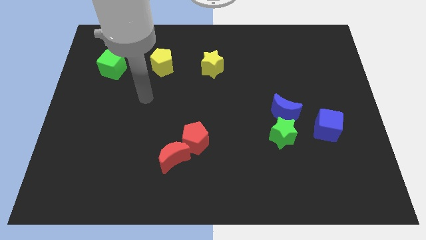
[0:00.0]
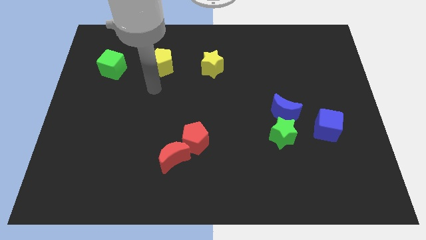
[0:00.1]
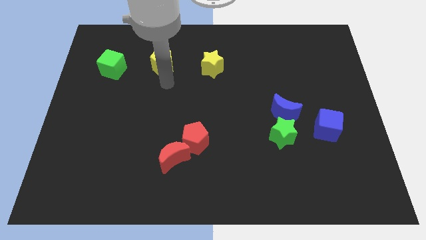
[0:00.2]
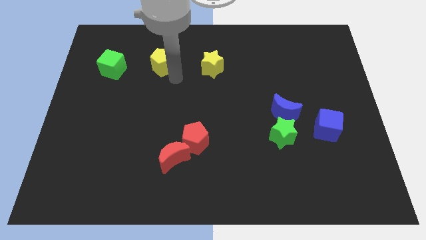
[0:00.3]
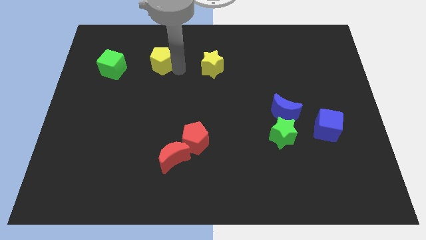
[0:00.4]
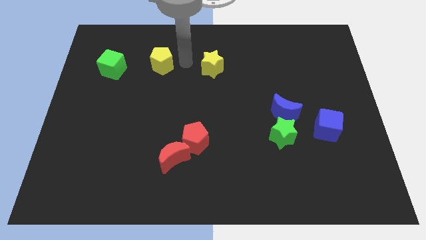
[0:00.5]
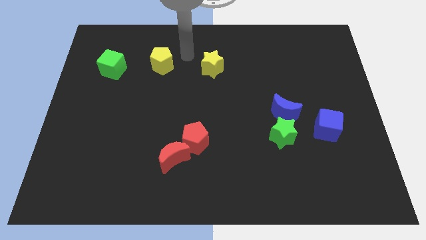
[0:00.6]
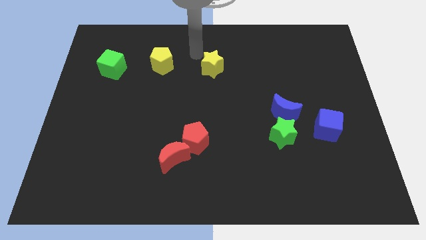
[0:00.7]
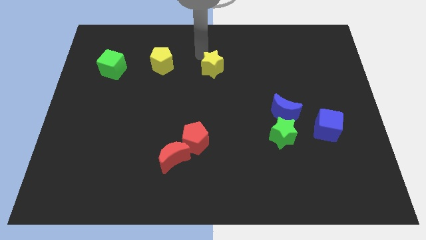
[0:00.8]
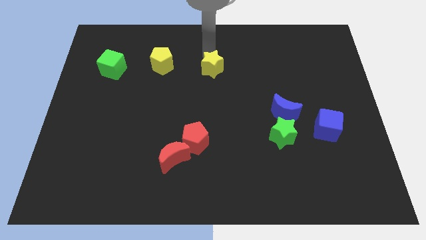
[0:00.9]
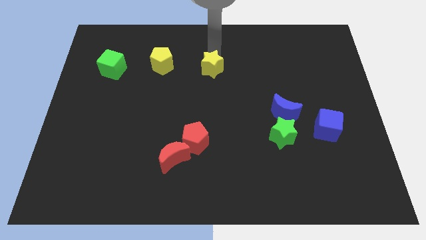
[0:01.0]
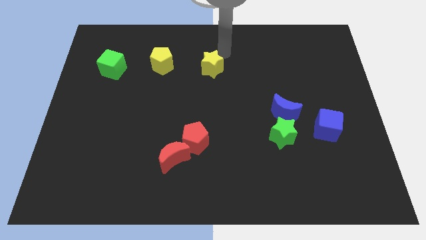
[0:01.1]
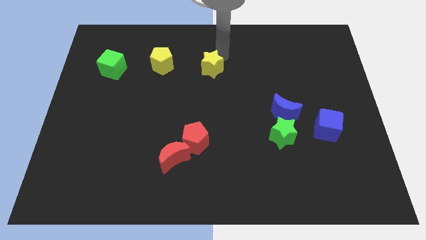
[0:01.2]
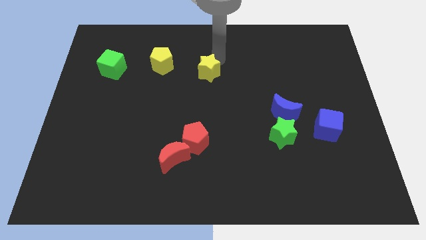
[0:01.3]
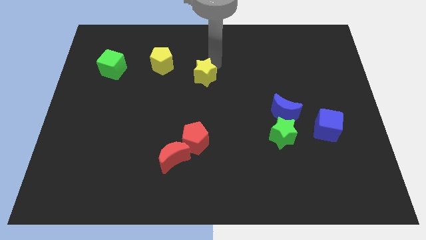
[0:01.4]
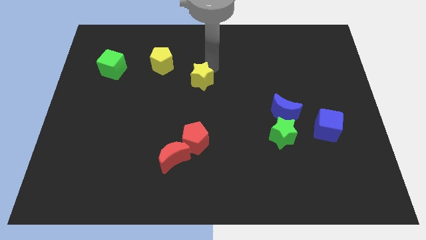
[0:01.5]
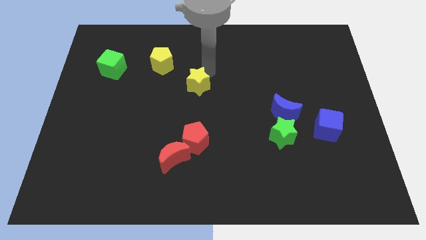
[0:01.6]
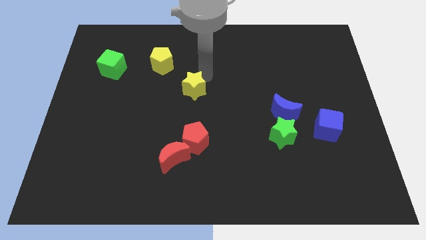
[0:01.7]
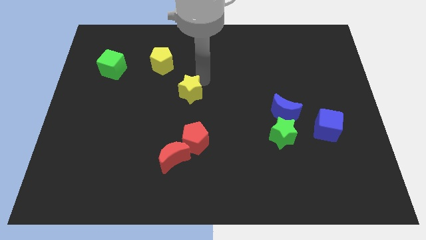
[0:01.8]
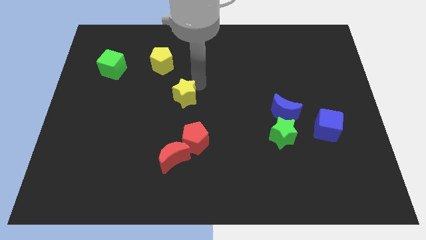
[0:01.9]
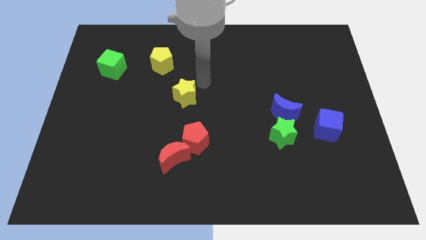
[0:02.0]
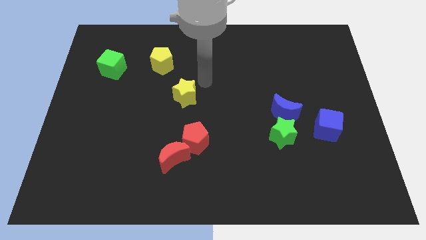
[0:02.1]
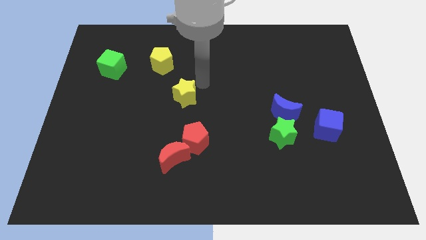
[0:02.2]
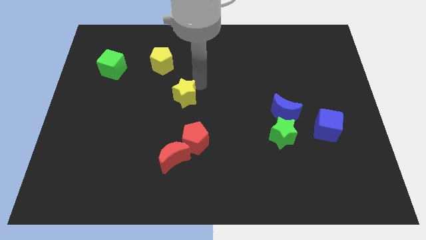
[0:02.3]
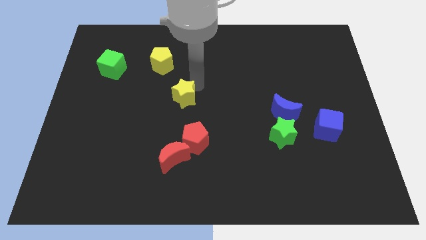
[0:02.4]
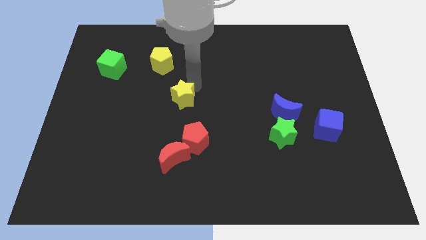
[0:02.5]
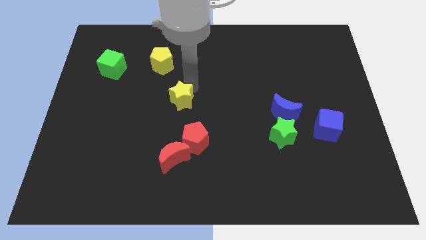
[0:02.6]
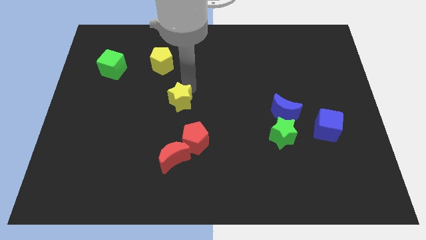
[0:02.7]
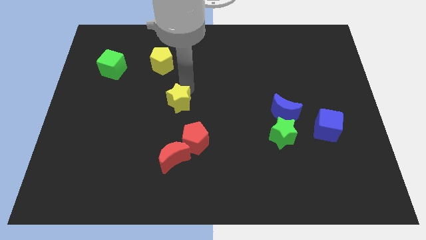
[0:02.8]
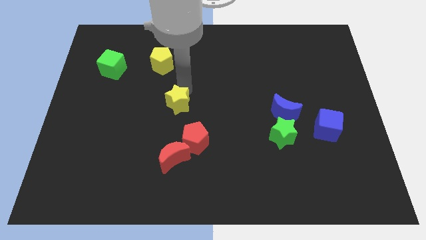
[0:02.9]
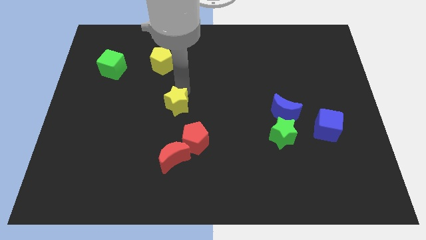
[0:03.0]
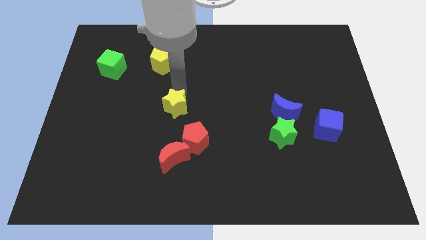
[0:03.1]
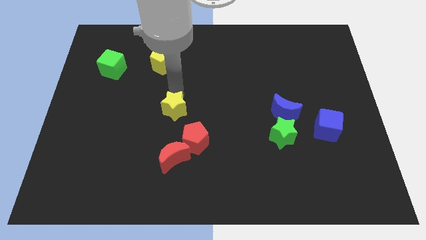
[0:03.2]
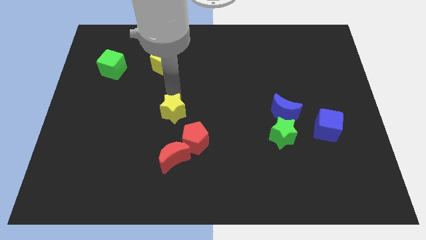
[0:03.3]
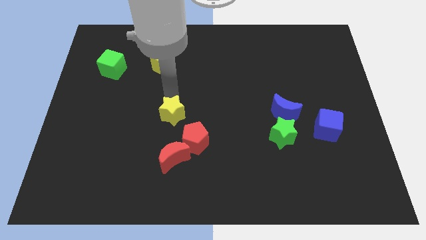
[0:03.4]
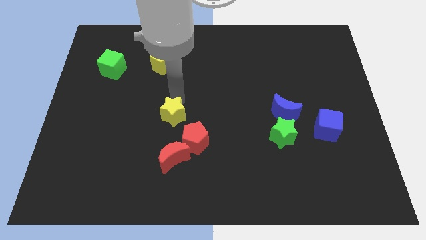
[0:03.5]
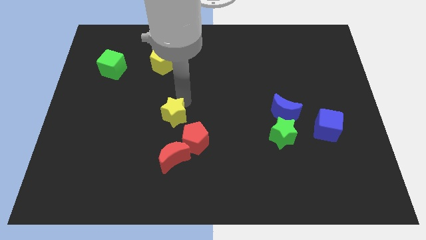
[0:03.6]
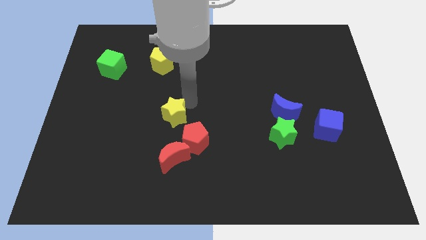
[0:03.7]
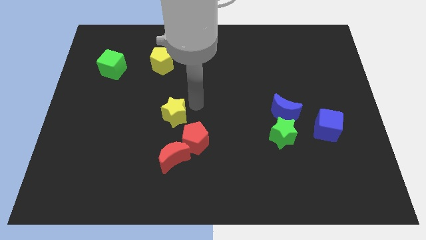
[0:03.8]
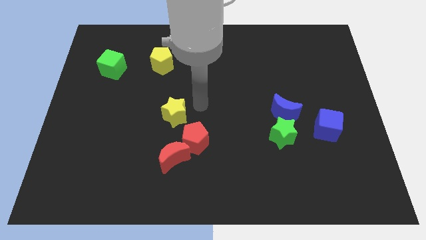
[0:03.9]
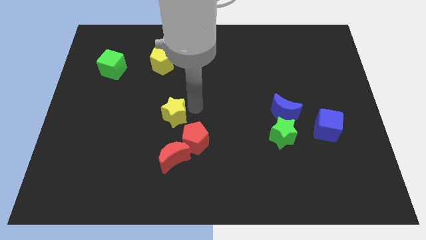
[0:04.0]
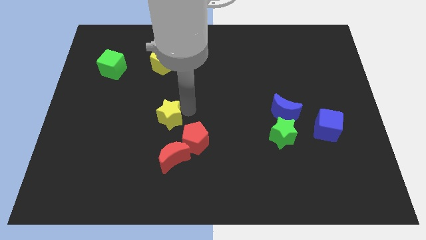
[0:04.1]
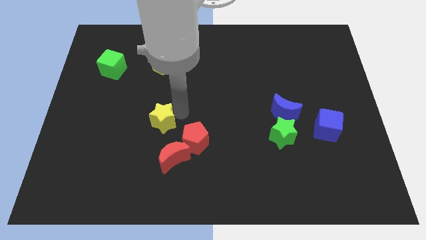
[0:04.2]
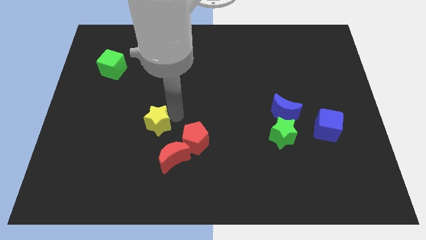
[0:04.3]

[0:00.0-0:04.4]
move the yellow star diagonally downwards and left

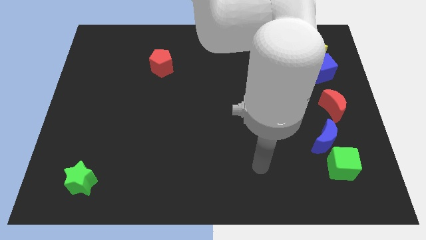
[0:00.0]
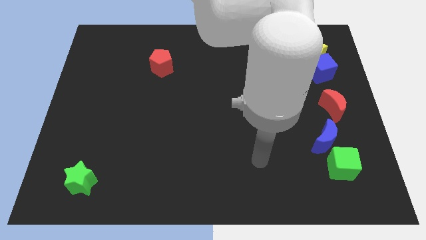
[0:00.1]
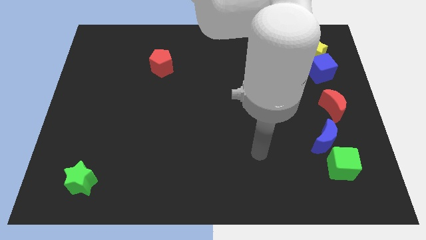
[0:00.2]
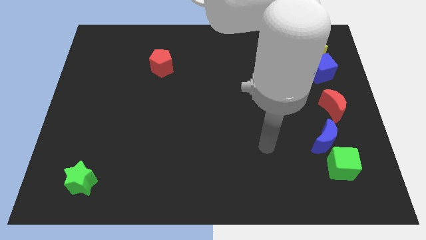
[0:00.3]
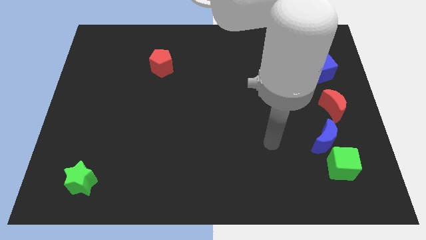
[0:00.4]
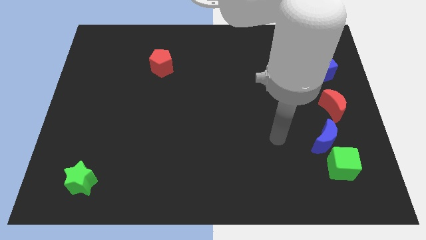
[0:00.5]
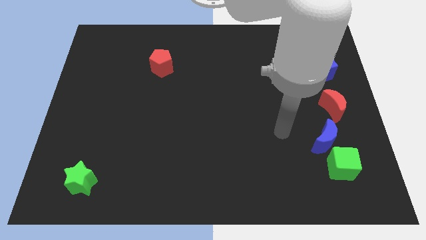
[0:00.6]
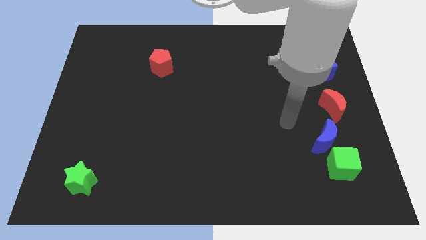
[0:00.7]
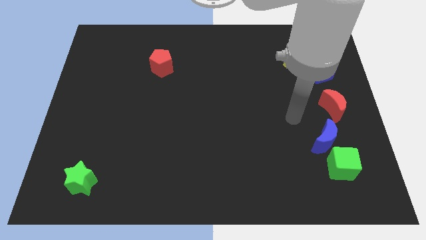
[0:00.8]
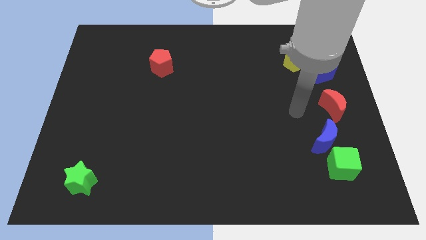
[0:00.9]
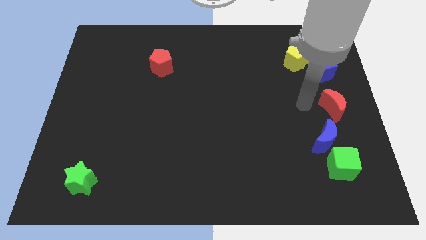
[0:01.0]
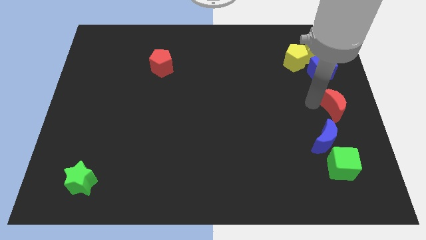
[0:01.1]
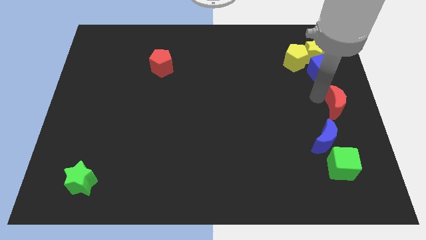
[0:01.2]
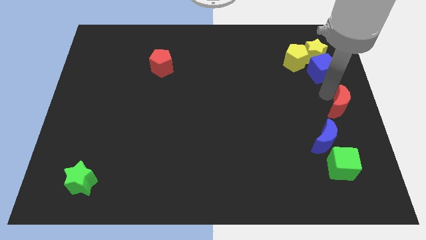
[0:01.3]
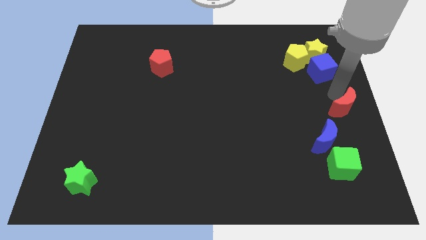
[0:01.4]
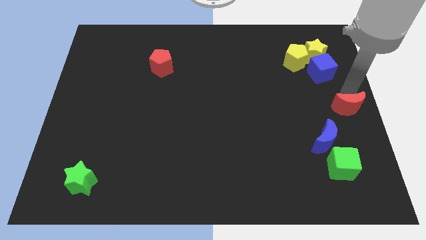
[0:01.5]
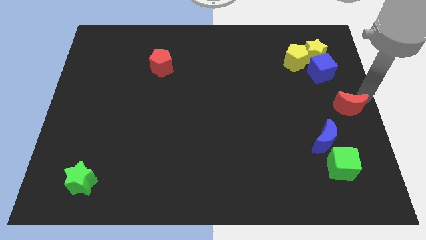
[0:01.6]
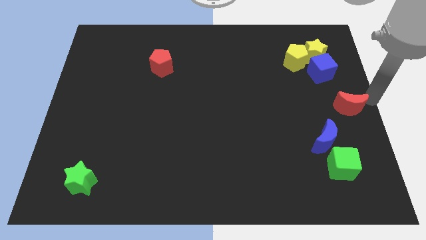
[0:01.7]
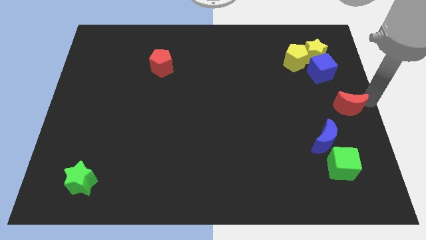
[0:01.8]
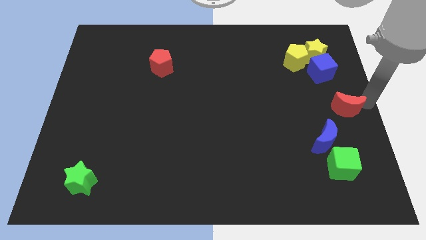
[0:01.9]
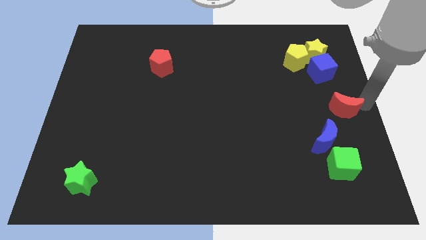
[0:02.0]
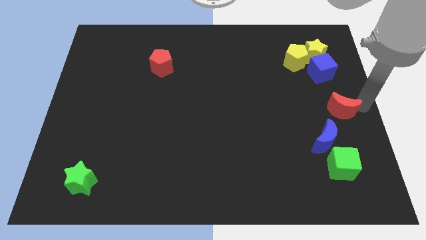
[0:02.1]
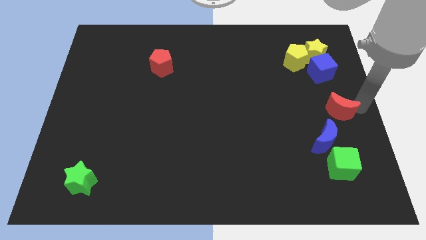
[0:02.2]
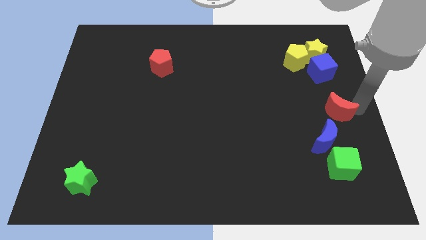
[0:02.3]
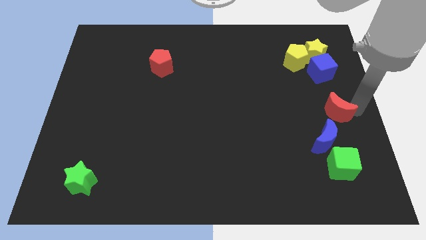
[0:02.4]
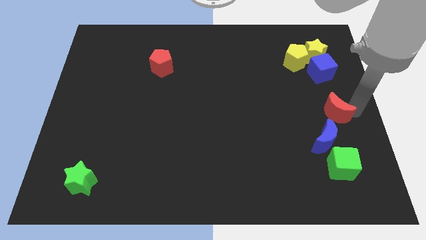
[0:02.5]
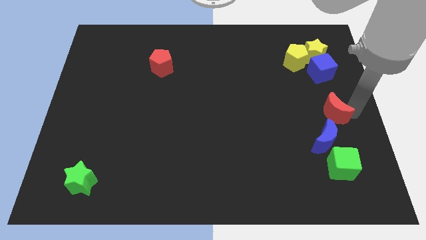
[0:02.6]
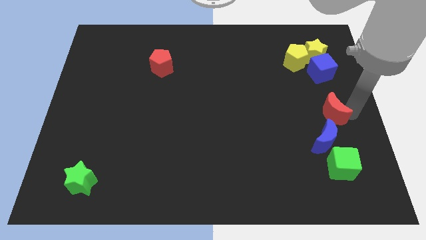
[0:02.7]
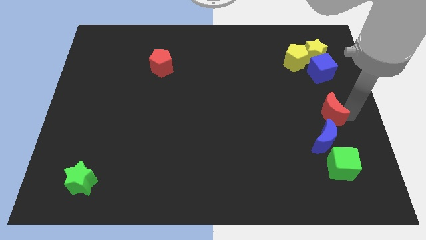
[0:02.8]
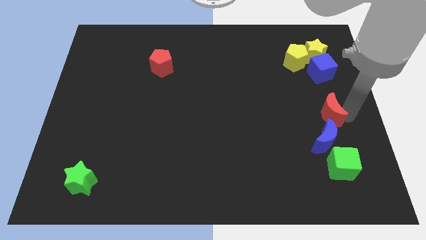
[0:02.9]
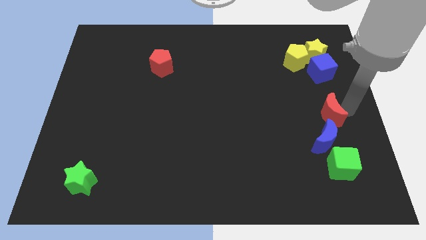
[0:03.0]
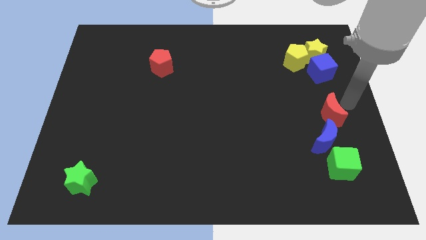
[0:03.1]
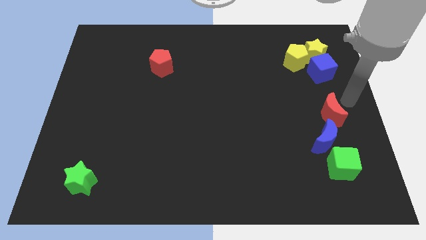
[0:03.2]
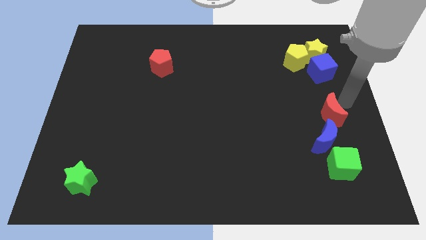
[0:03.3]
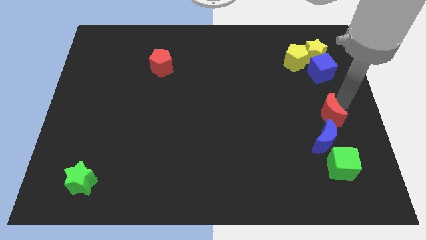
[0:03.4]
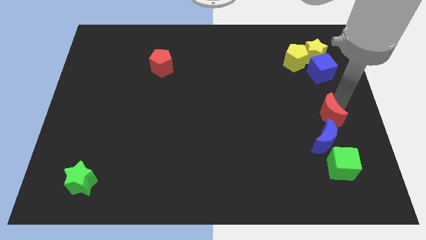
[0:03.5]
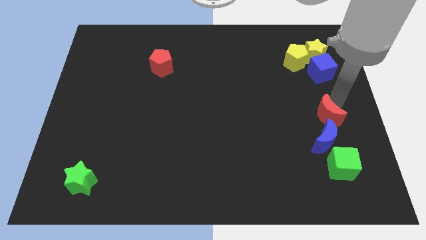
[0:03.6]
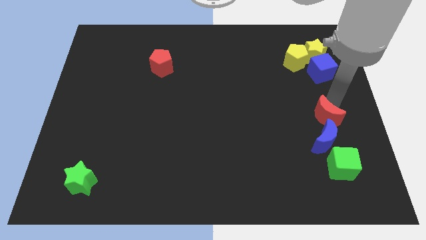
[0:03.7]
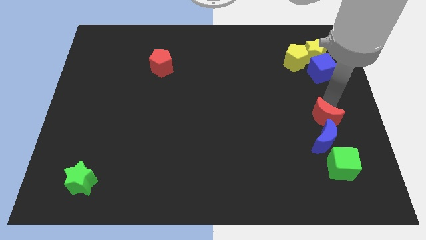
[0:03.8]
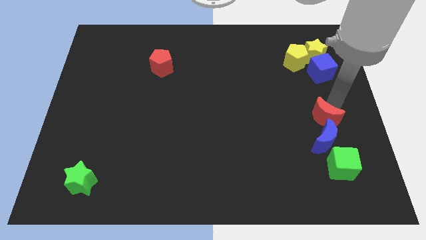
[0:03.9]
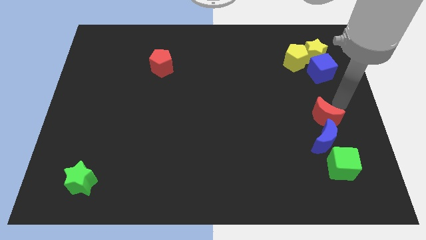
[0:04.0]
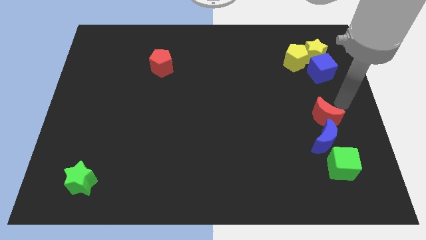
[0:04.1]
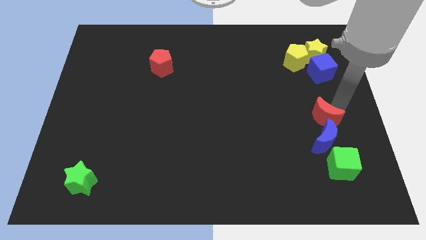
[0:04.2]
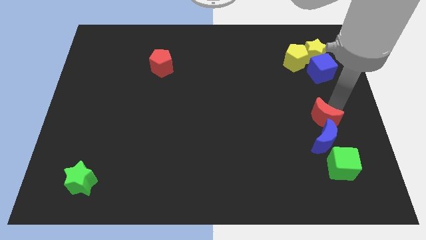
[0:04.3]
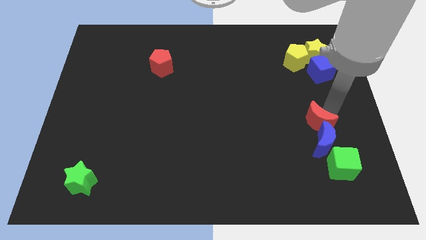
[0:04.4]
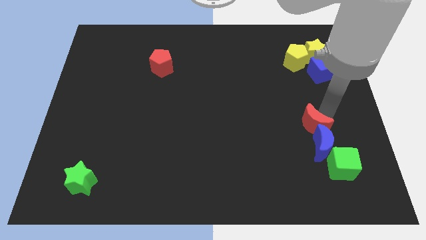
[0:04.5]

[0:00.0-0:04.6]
push the red moon a bit diagonally downwards and to the left
